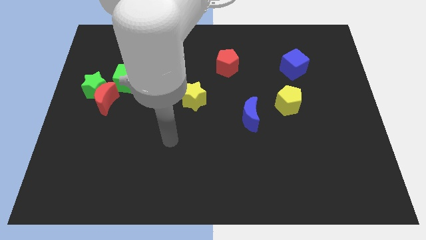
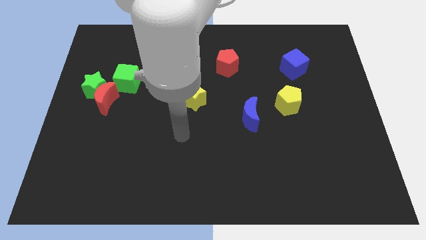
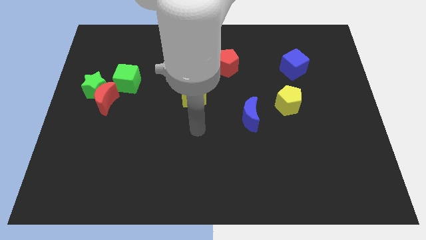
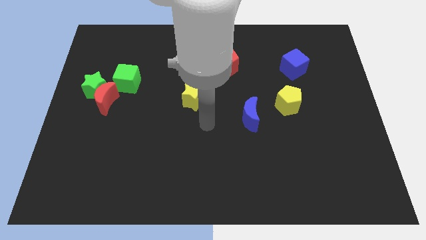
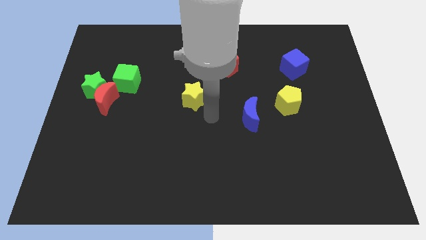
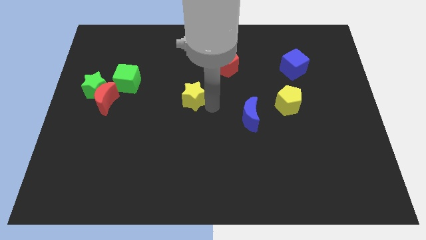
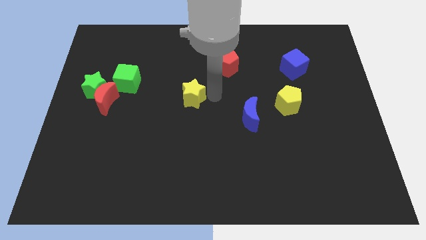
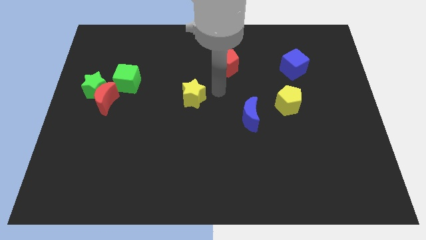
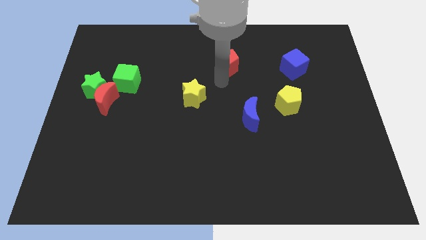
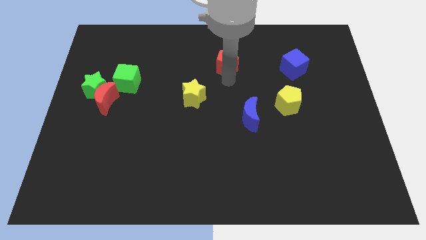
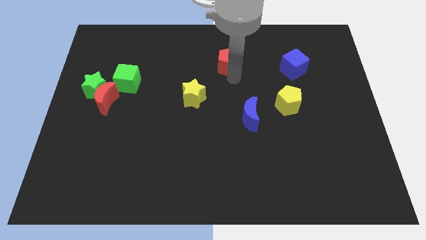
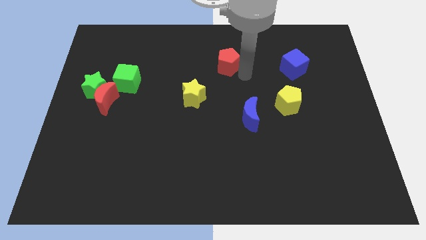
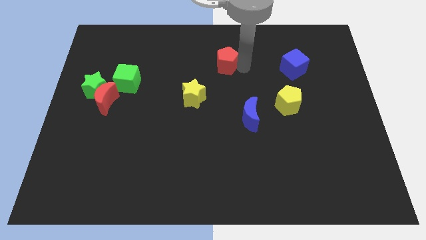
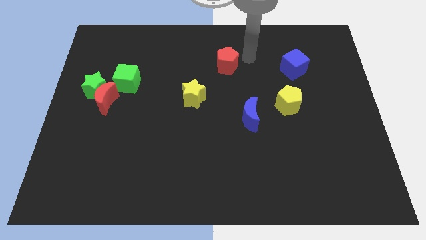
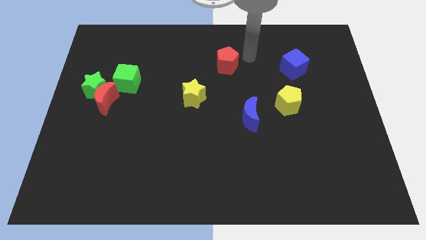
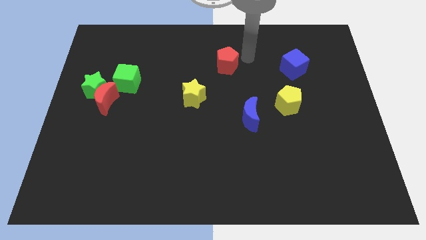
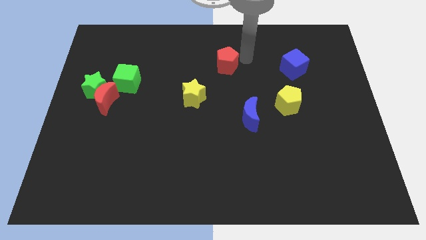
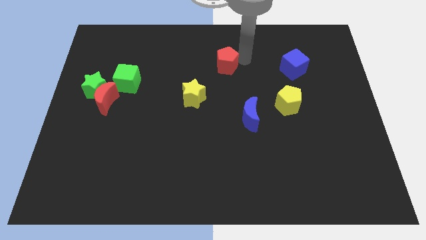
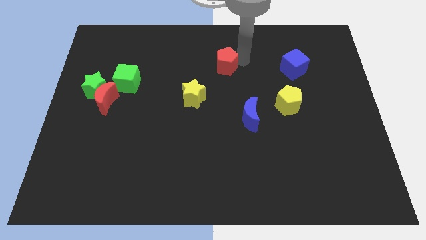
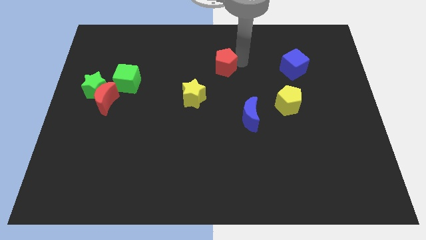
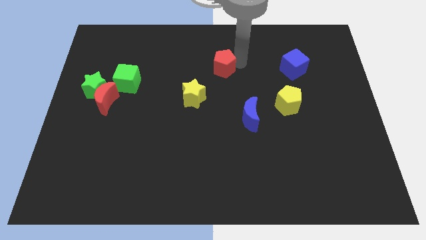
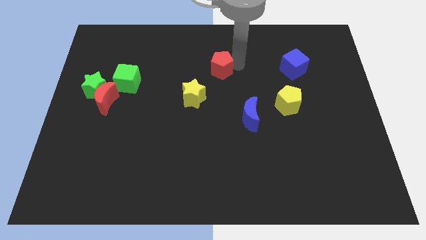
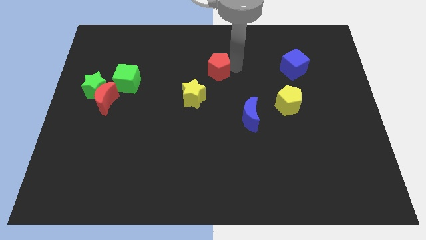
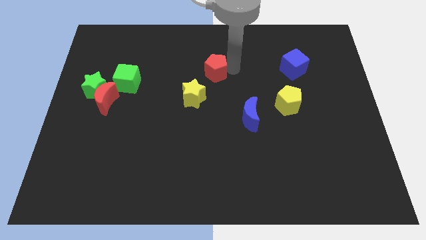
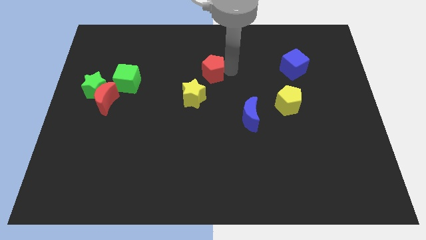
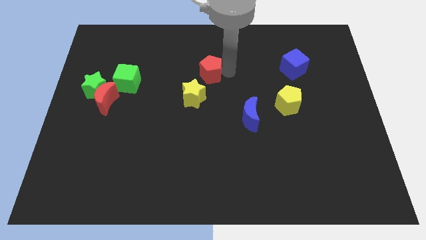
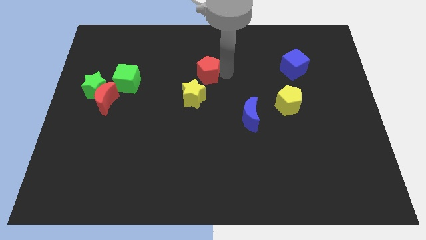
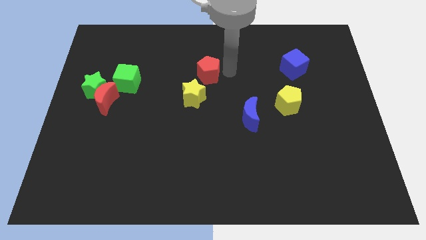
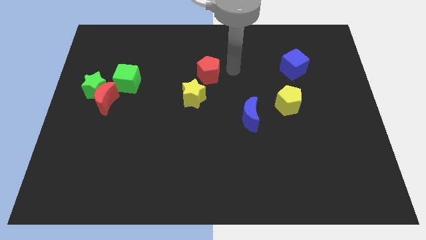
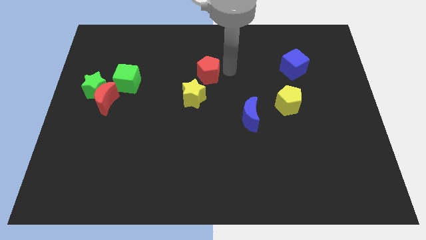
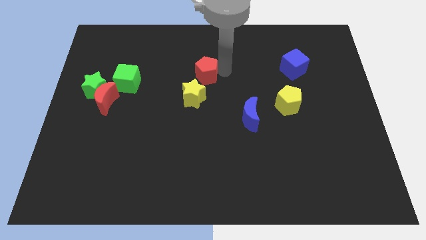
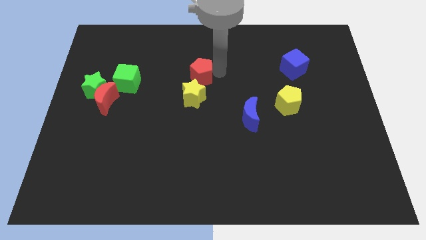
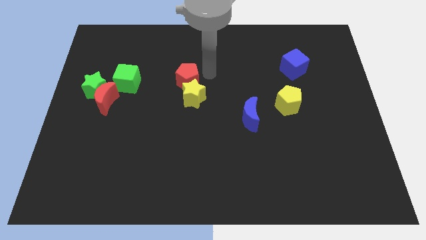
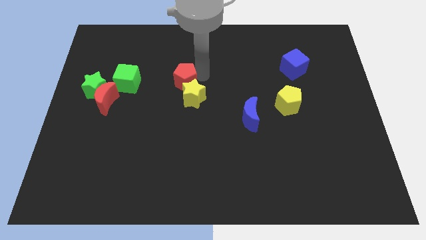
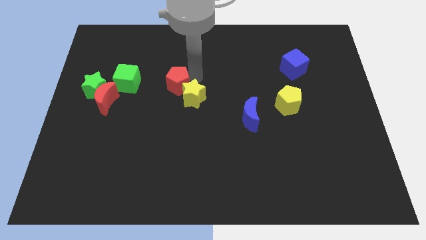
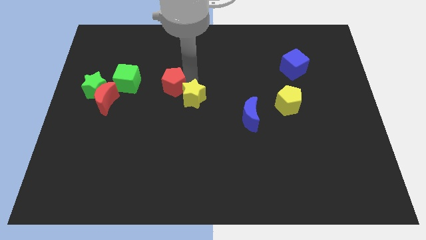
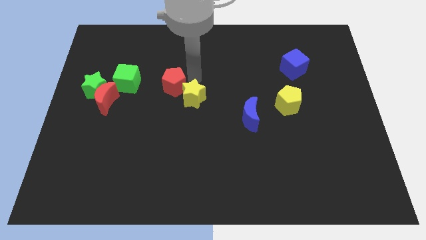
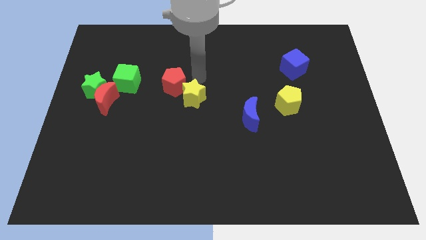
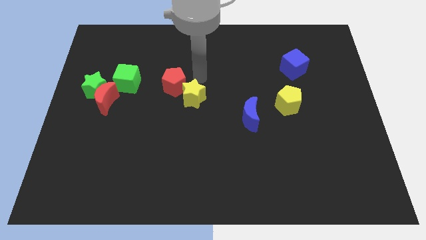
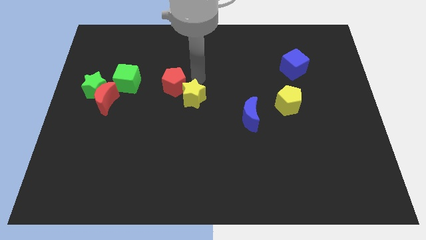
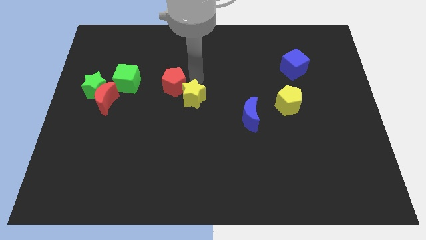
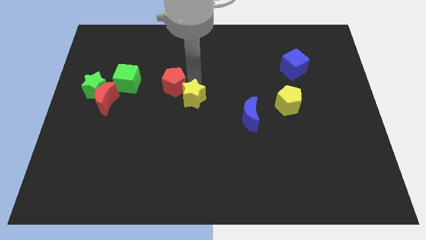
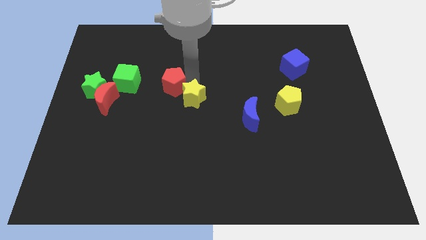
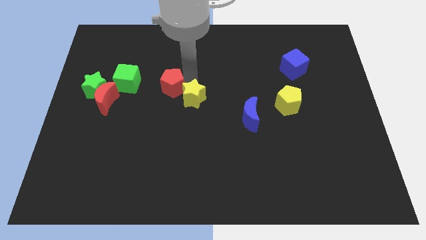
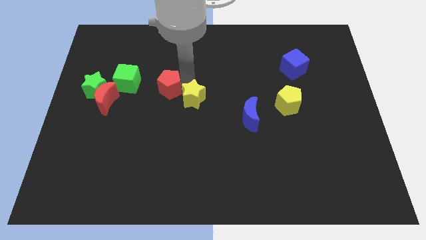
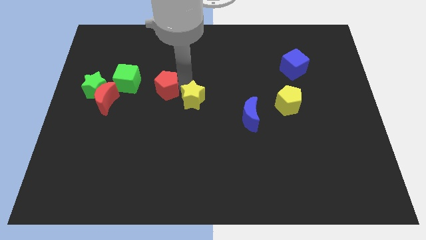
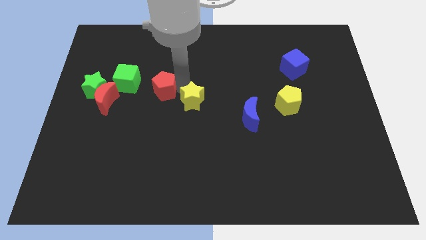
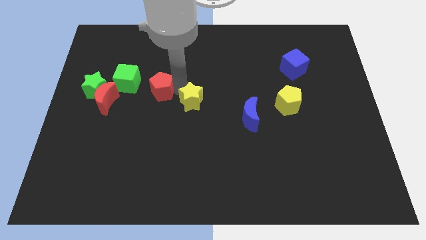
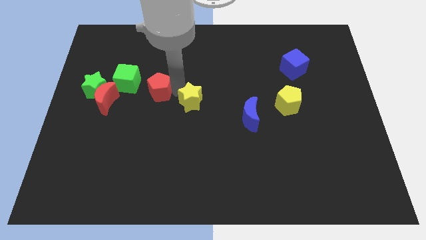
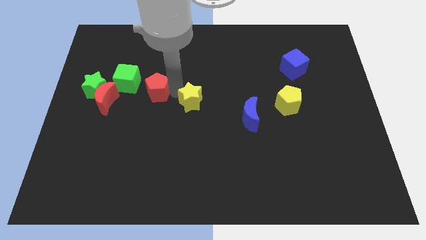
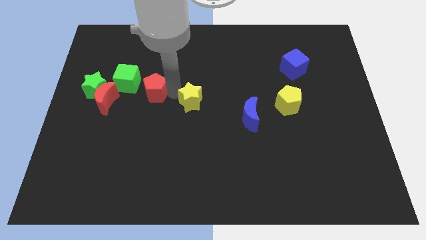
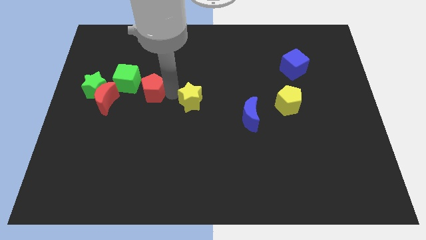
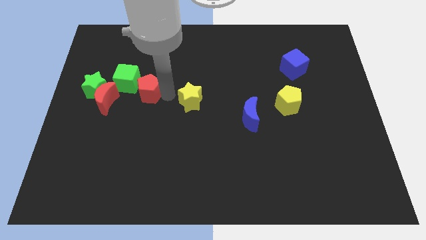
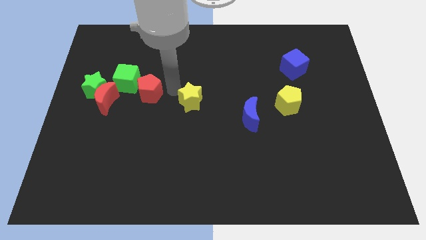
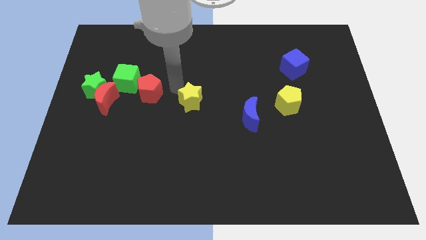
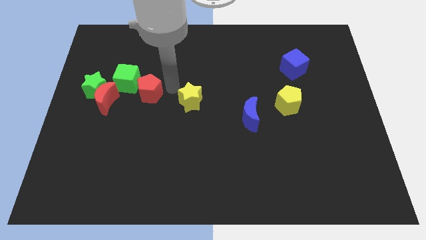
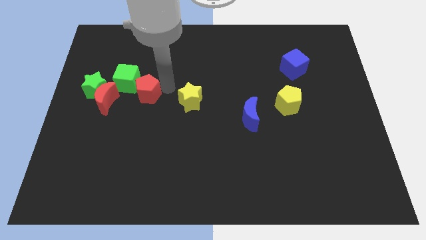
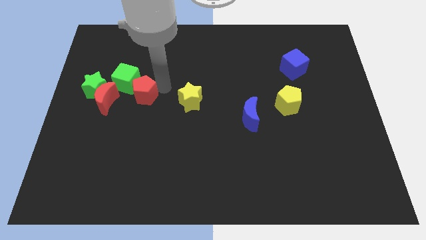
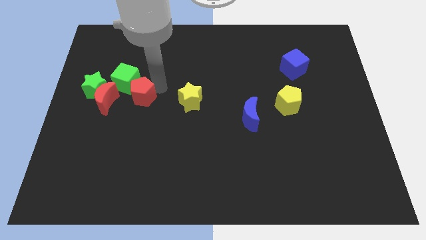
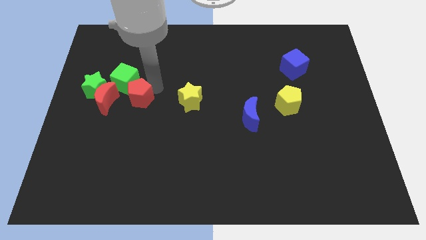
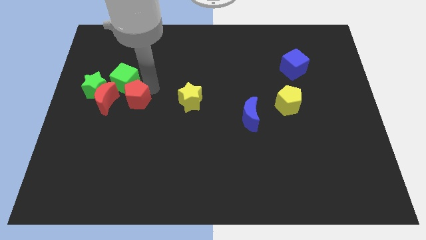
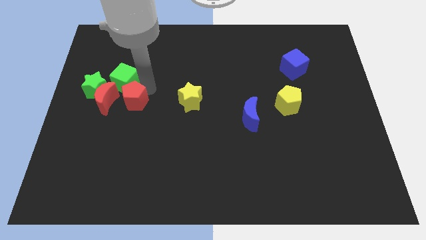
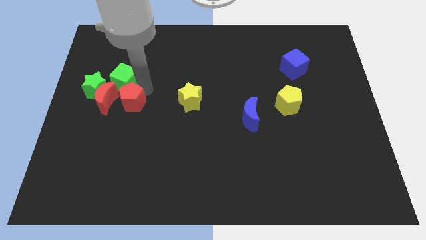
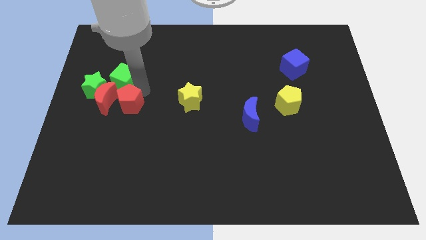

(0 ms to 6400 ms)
slide the red pentagon next to the red moon
